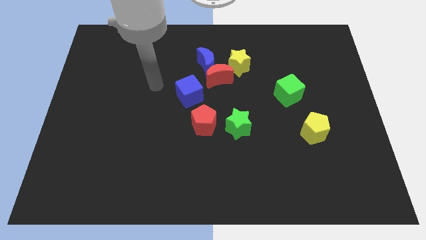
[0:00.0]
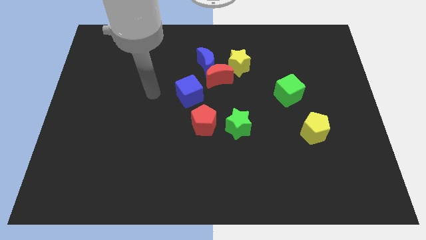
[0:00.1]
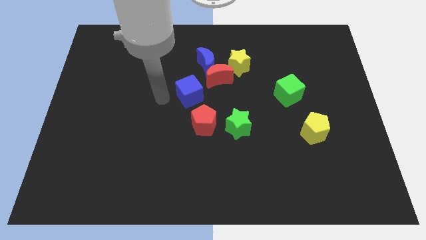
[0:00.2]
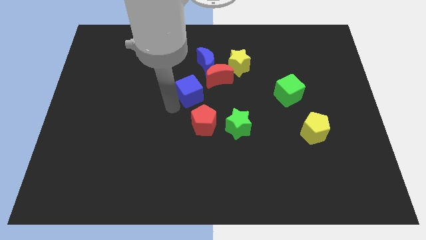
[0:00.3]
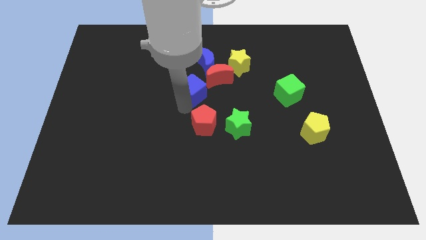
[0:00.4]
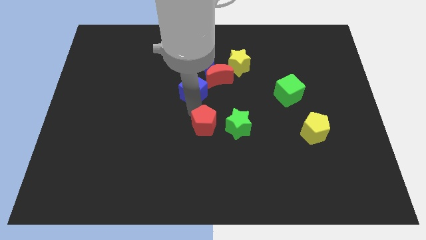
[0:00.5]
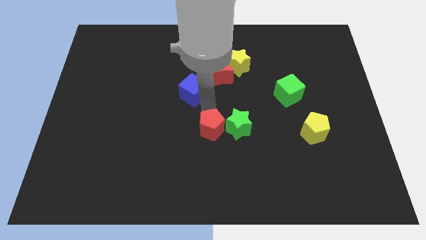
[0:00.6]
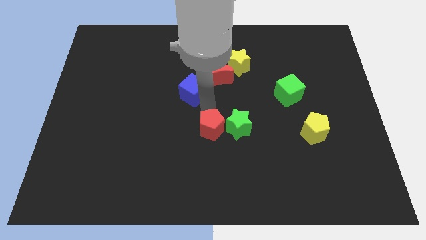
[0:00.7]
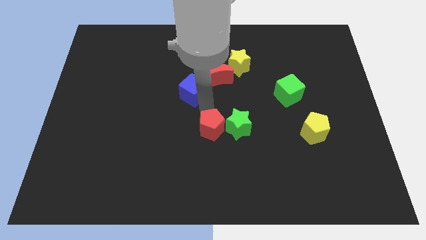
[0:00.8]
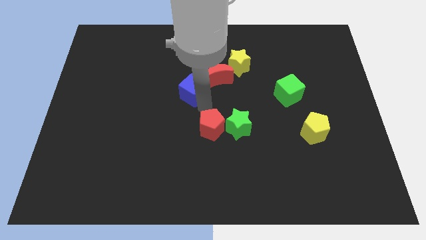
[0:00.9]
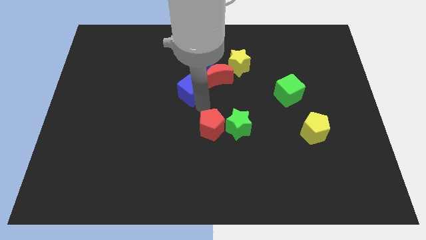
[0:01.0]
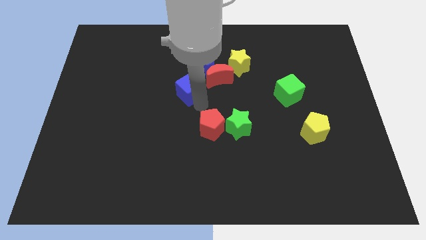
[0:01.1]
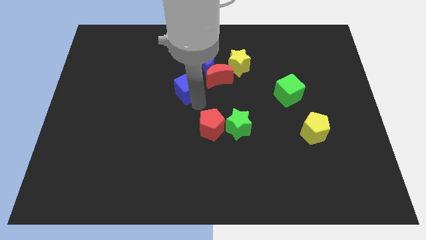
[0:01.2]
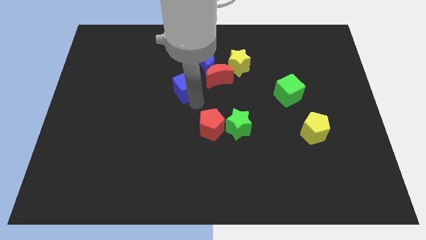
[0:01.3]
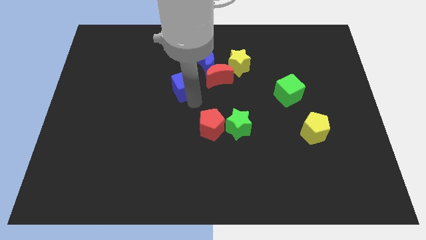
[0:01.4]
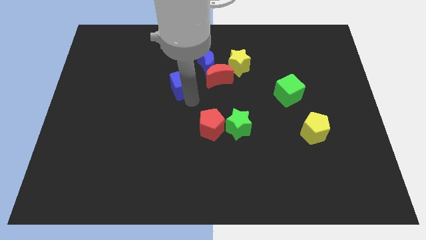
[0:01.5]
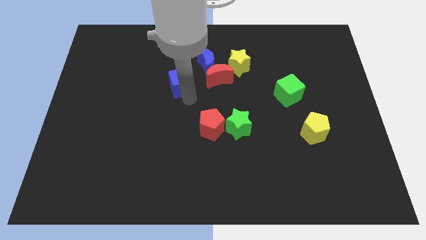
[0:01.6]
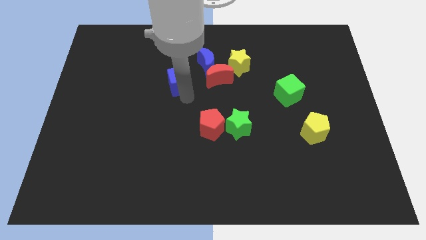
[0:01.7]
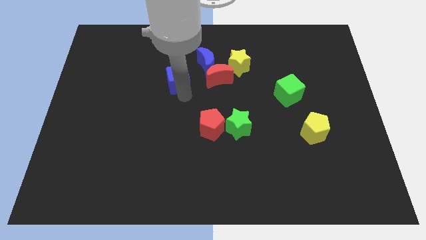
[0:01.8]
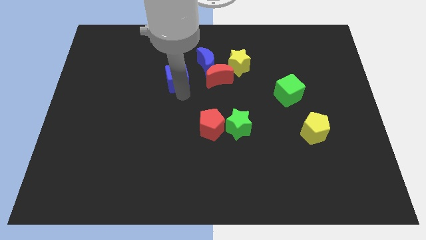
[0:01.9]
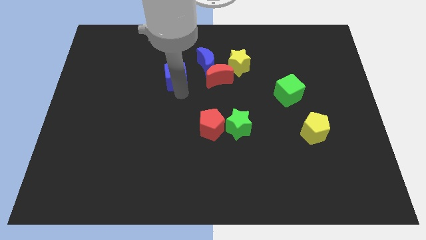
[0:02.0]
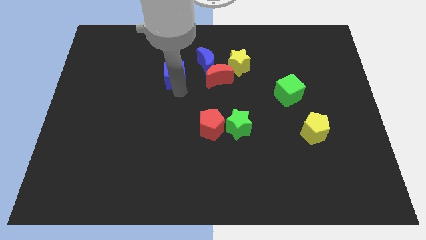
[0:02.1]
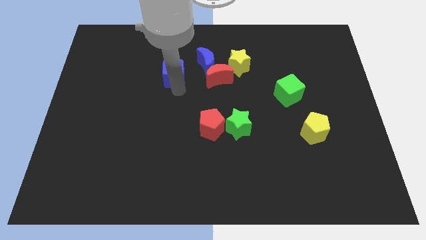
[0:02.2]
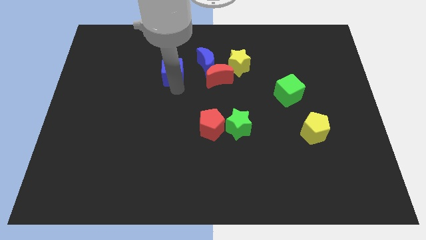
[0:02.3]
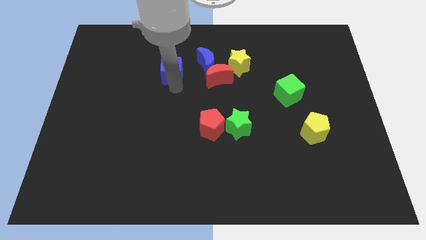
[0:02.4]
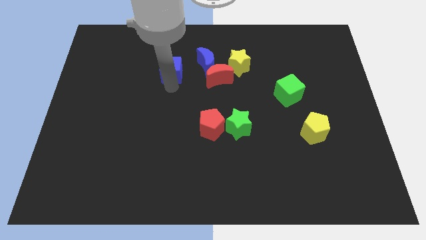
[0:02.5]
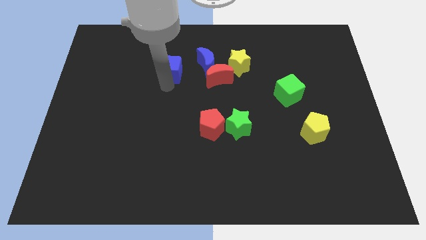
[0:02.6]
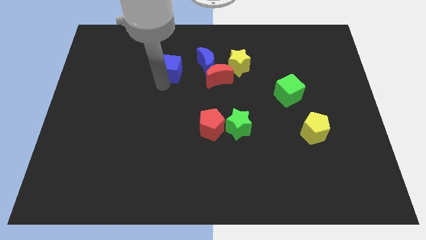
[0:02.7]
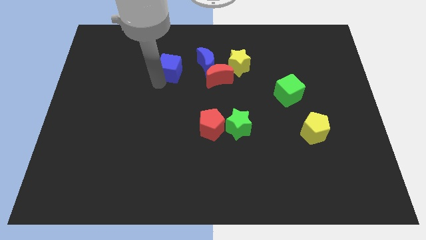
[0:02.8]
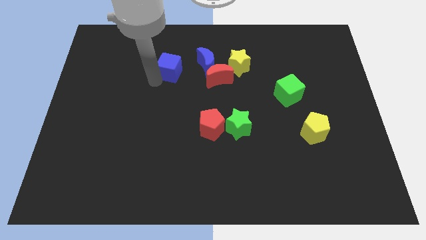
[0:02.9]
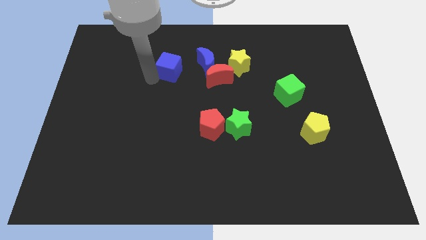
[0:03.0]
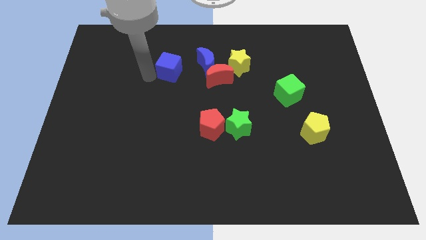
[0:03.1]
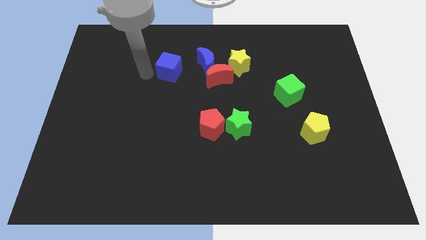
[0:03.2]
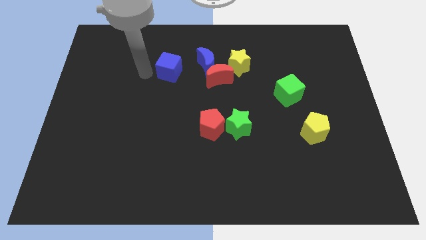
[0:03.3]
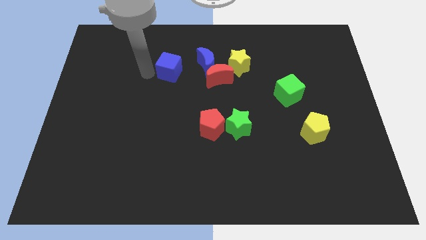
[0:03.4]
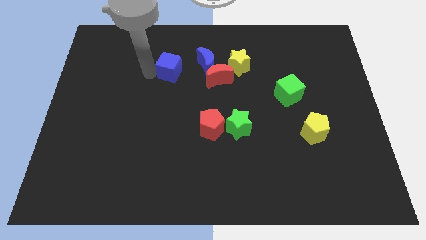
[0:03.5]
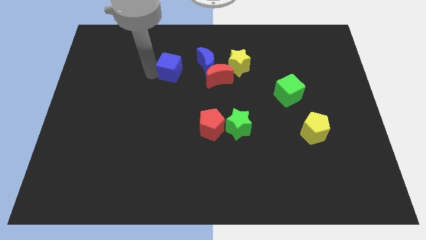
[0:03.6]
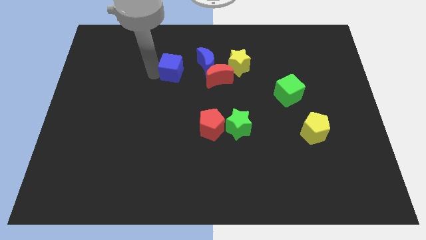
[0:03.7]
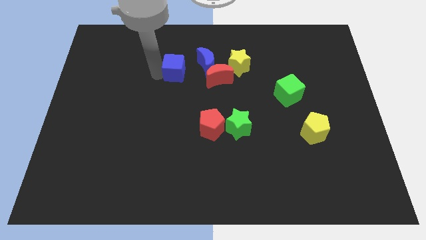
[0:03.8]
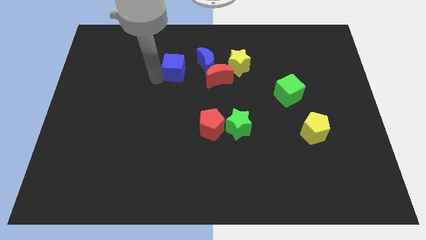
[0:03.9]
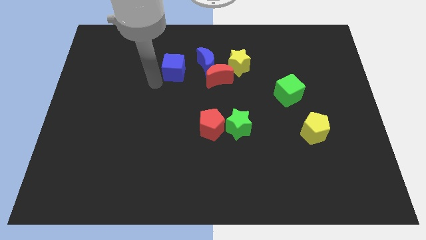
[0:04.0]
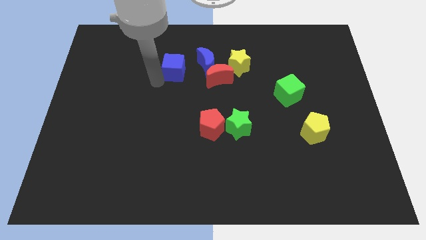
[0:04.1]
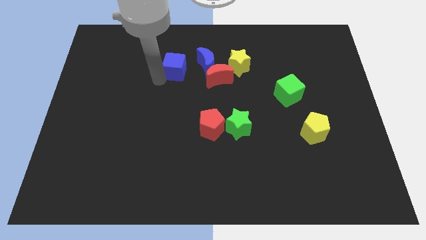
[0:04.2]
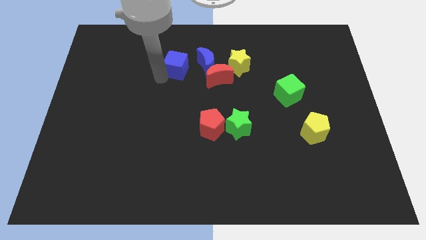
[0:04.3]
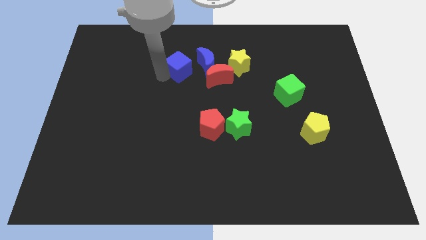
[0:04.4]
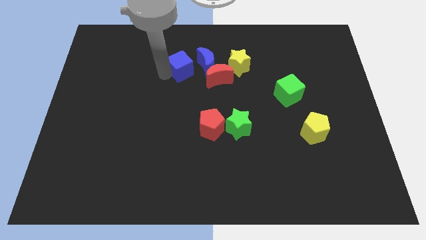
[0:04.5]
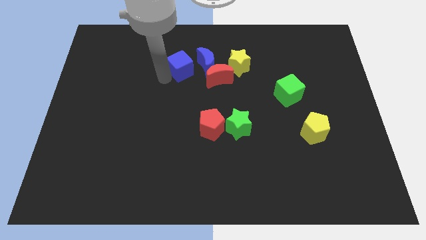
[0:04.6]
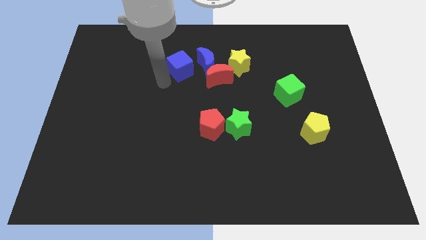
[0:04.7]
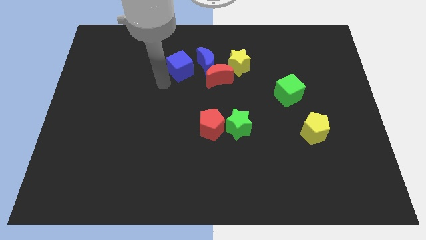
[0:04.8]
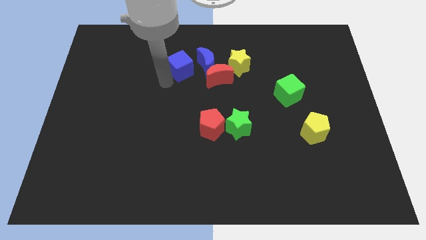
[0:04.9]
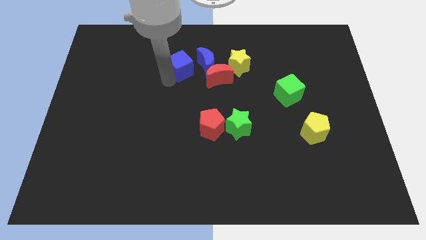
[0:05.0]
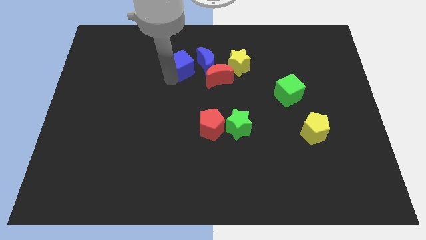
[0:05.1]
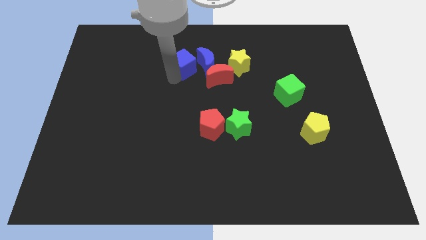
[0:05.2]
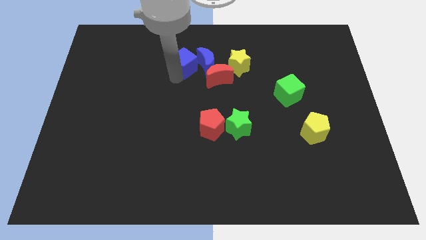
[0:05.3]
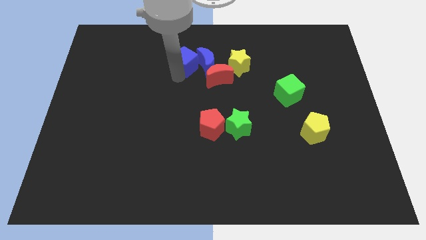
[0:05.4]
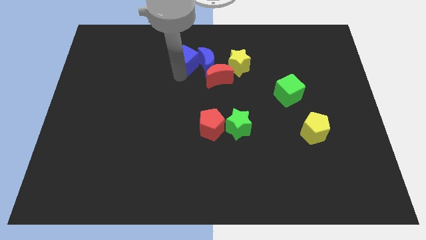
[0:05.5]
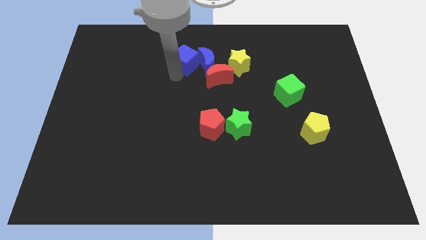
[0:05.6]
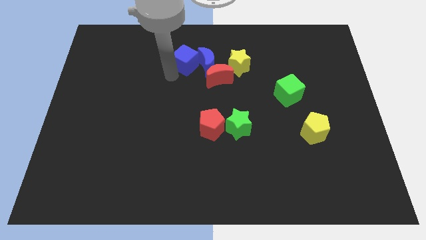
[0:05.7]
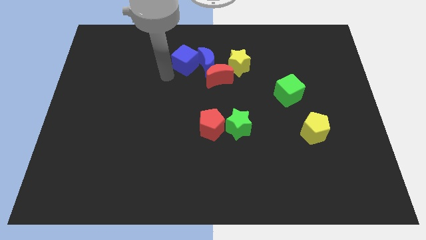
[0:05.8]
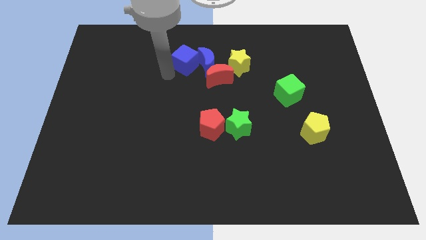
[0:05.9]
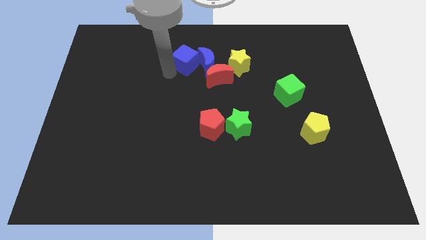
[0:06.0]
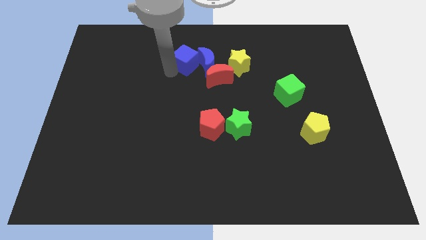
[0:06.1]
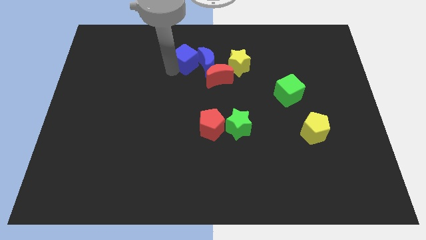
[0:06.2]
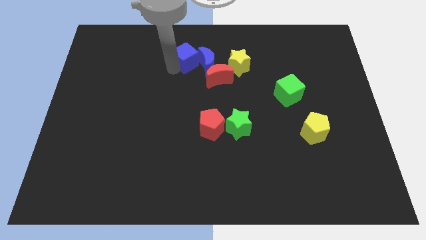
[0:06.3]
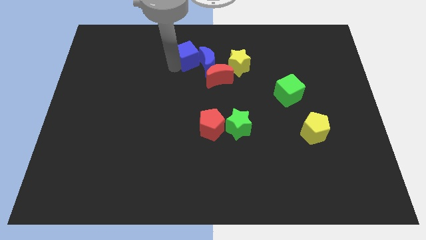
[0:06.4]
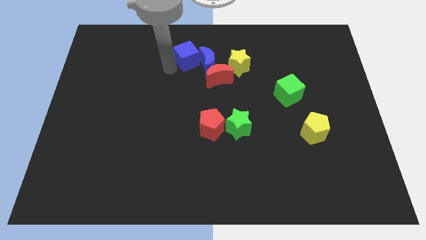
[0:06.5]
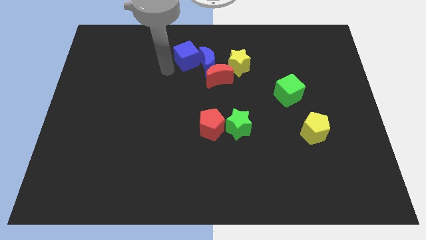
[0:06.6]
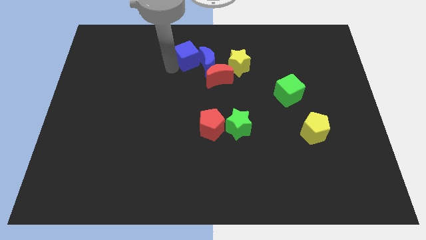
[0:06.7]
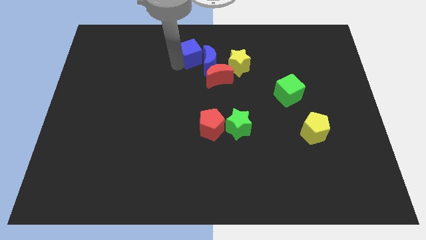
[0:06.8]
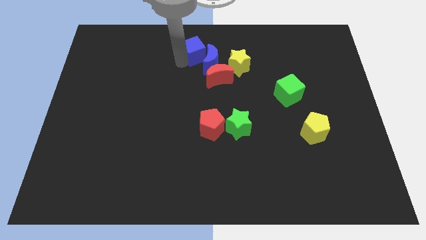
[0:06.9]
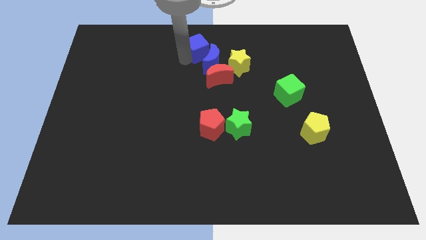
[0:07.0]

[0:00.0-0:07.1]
move the blue cube diagonally upwards and to the right slightly

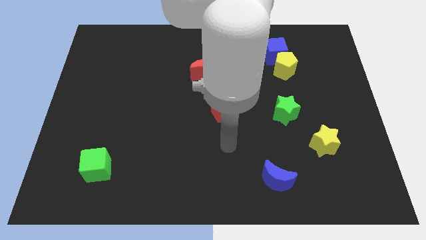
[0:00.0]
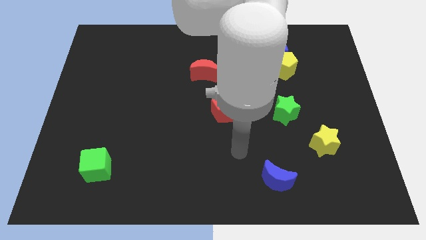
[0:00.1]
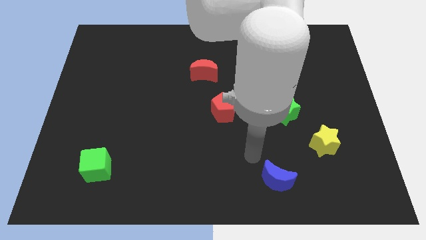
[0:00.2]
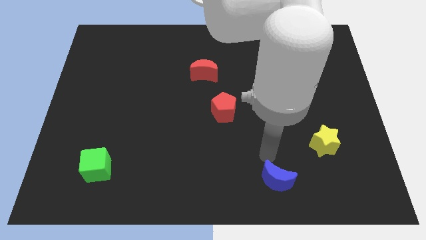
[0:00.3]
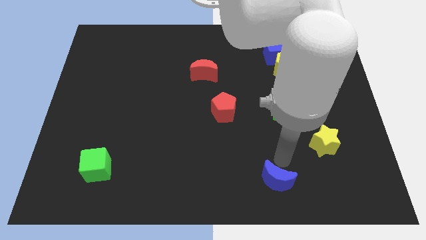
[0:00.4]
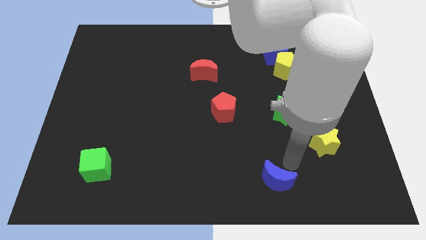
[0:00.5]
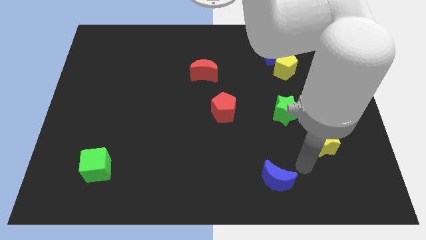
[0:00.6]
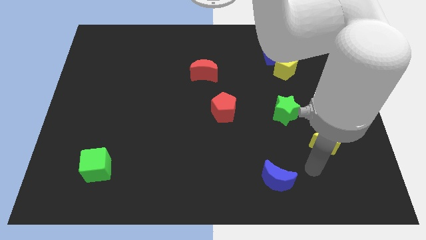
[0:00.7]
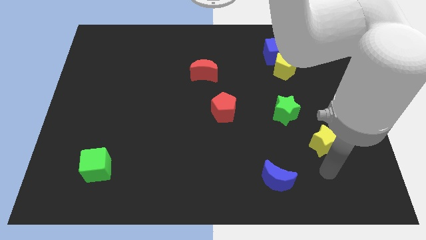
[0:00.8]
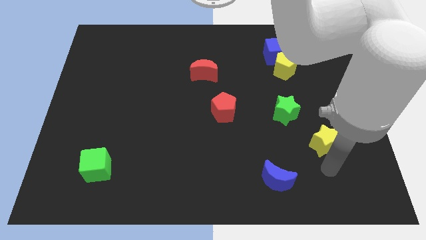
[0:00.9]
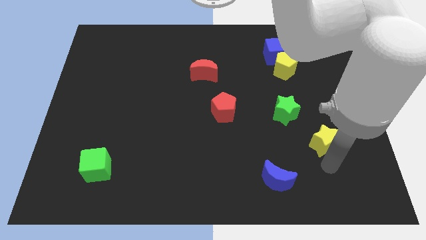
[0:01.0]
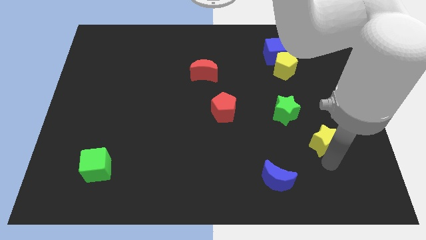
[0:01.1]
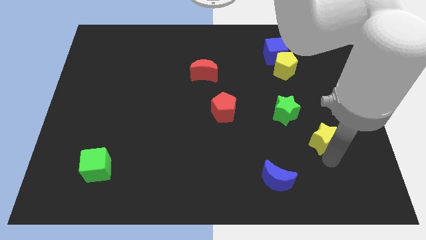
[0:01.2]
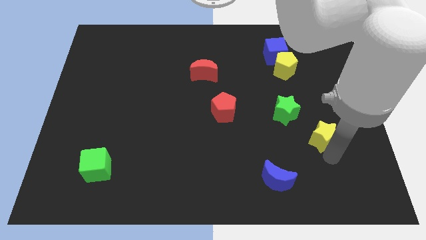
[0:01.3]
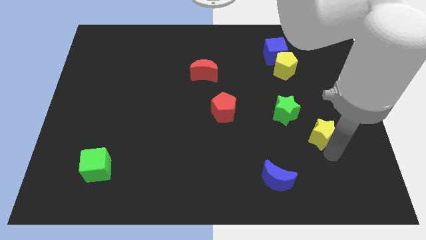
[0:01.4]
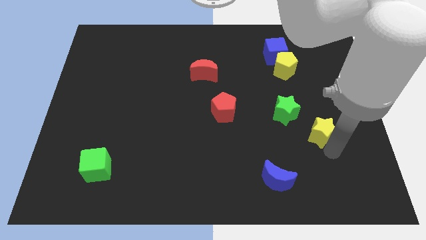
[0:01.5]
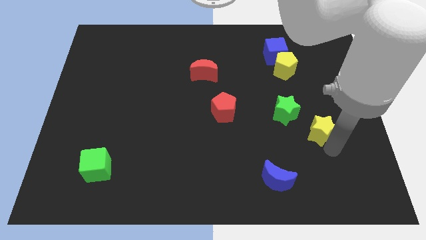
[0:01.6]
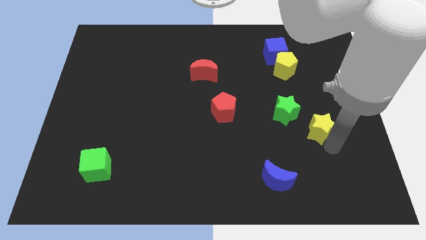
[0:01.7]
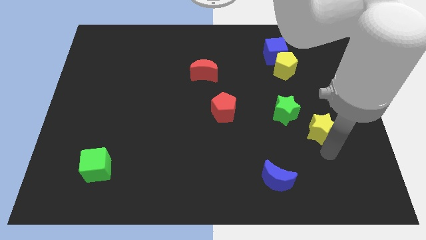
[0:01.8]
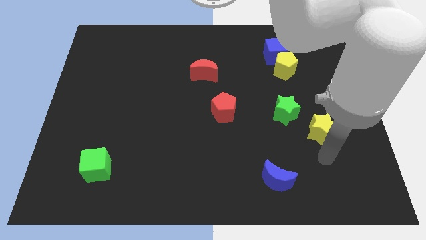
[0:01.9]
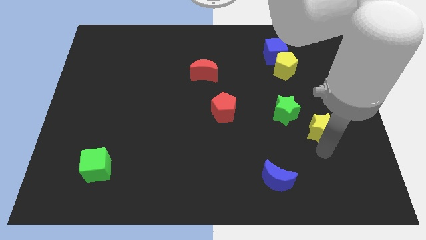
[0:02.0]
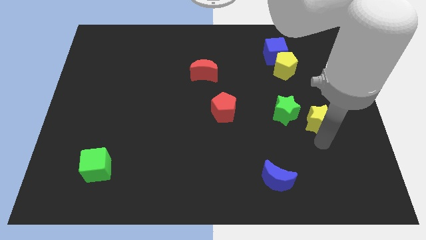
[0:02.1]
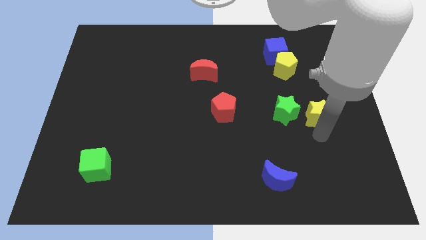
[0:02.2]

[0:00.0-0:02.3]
push the yellow star upwards a little bit
